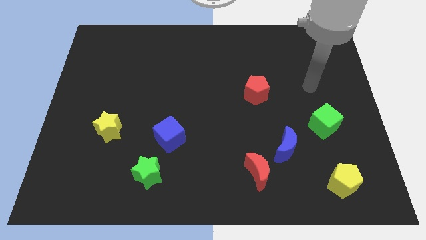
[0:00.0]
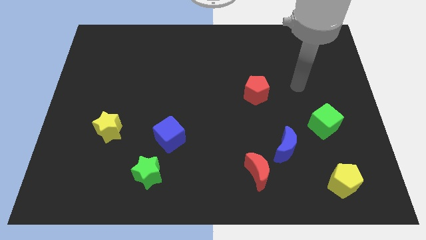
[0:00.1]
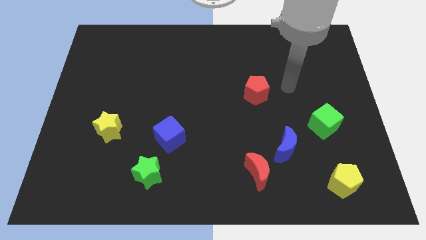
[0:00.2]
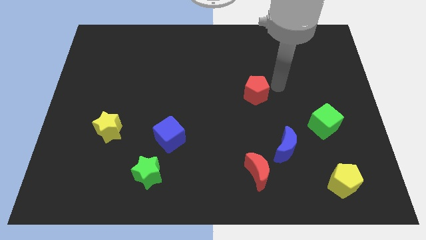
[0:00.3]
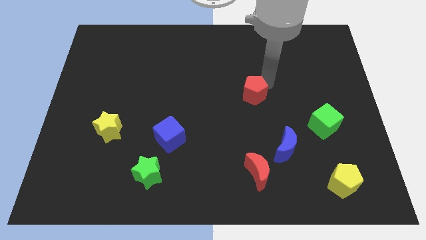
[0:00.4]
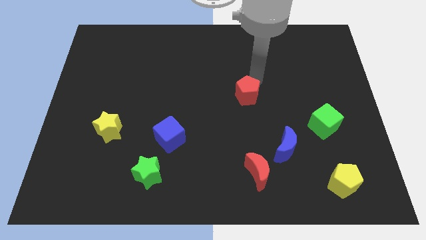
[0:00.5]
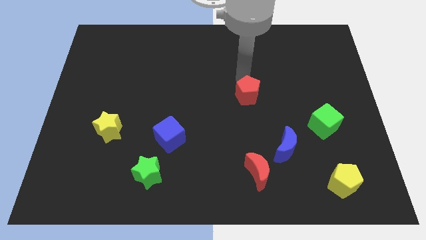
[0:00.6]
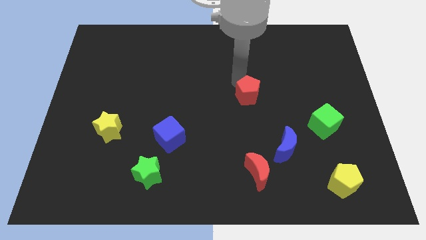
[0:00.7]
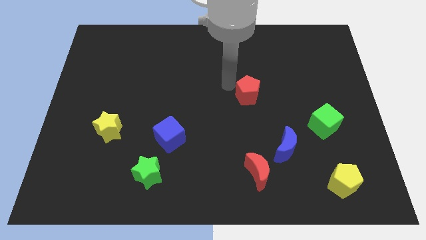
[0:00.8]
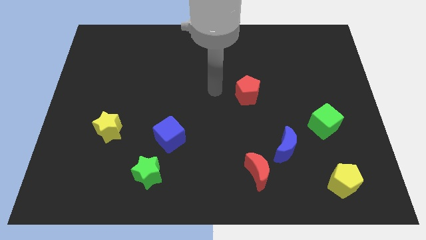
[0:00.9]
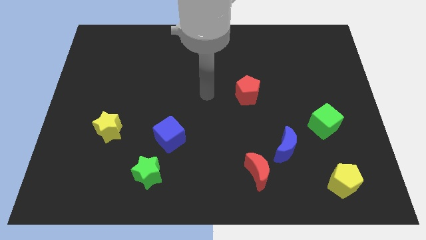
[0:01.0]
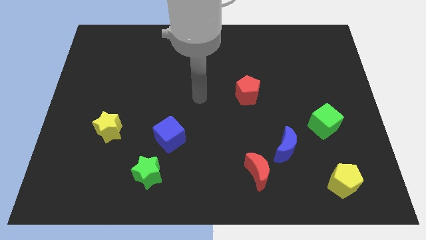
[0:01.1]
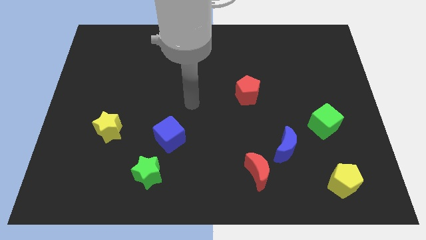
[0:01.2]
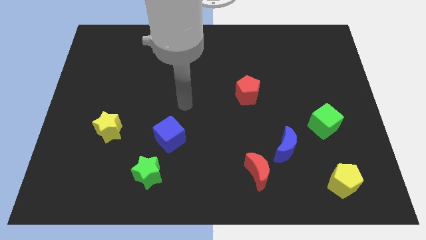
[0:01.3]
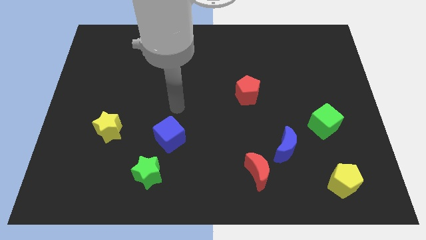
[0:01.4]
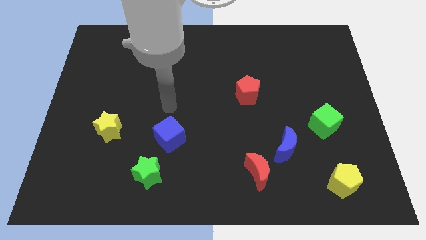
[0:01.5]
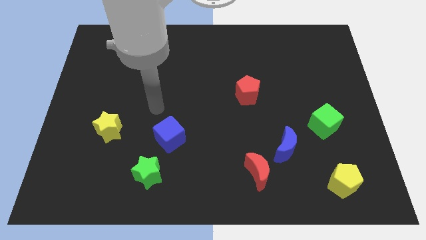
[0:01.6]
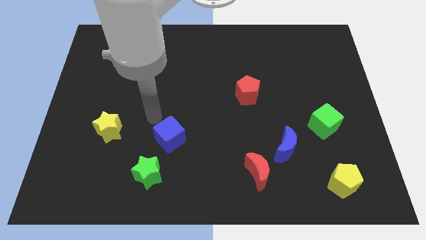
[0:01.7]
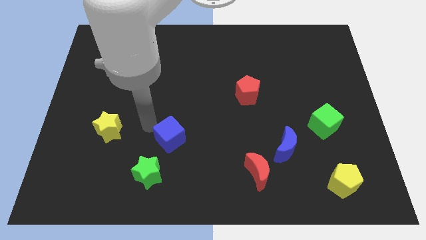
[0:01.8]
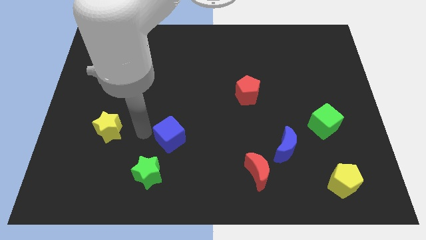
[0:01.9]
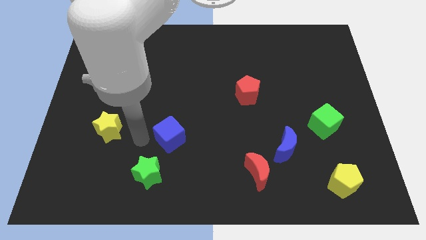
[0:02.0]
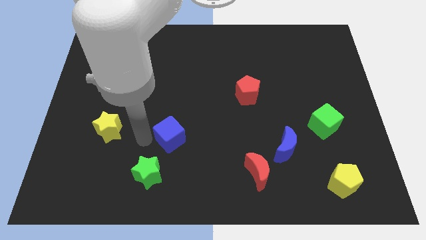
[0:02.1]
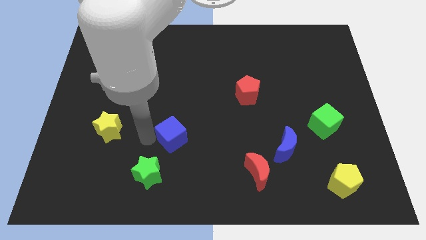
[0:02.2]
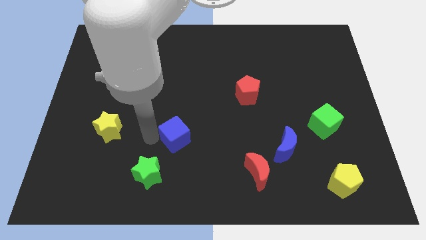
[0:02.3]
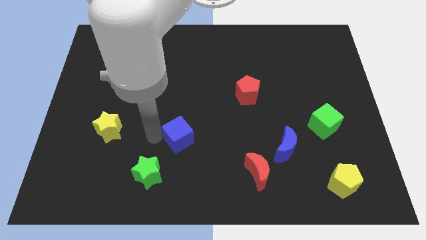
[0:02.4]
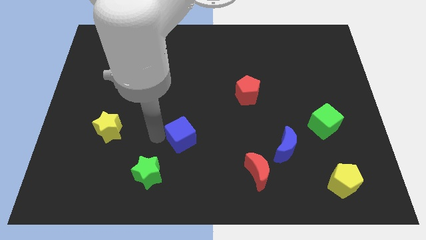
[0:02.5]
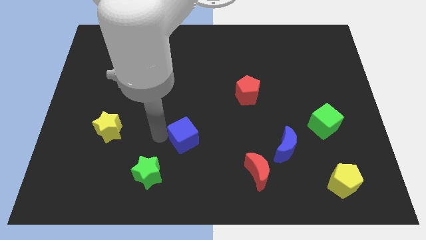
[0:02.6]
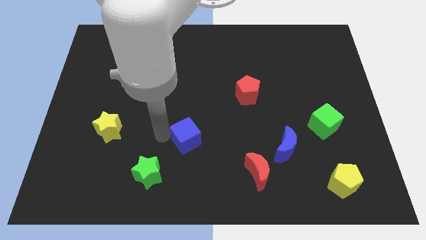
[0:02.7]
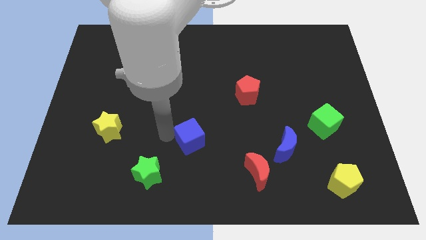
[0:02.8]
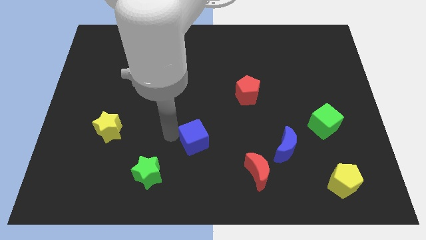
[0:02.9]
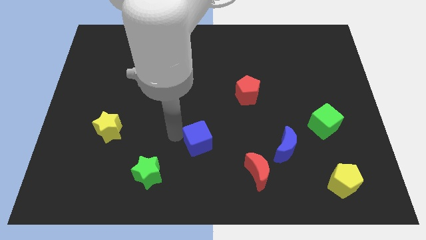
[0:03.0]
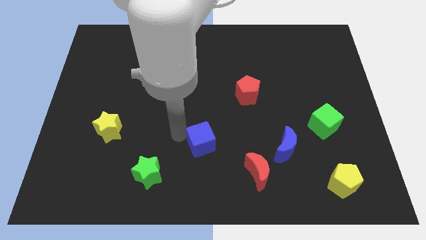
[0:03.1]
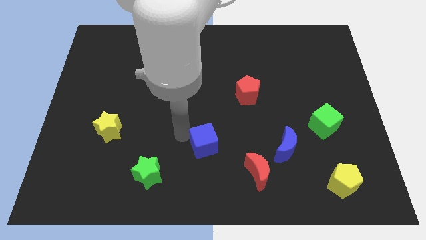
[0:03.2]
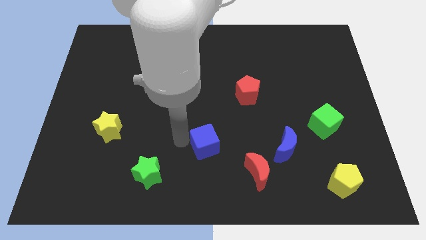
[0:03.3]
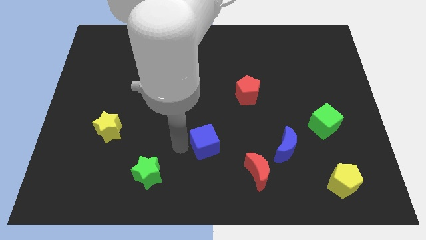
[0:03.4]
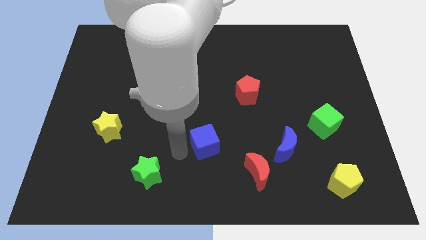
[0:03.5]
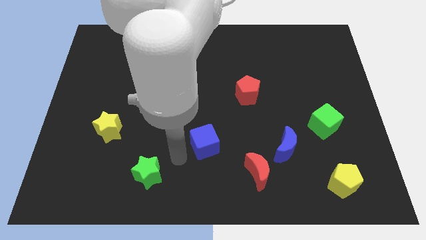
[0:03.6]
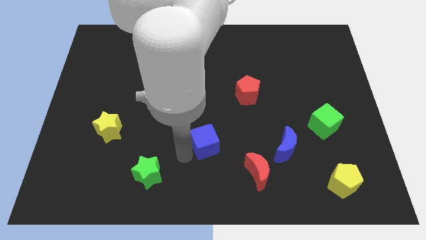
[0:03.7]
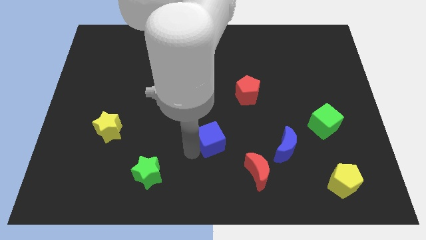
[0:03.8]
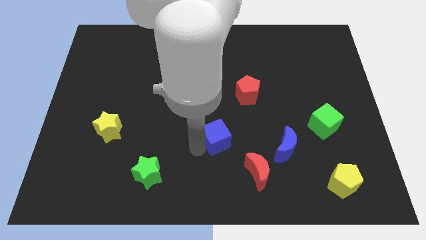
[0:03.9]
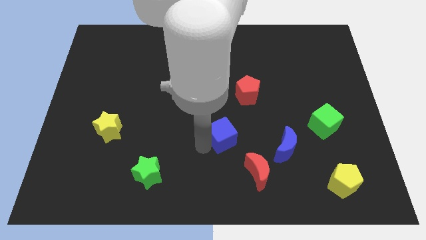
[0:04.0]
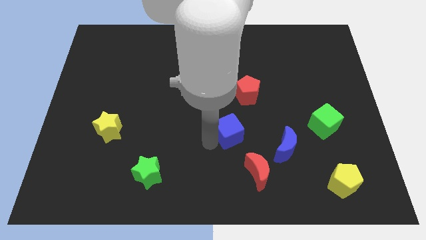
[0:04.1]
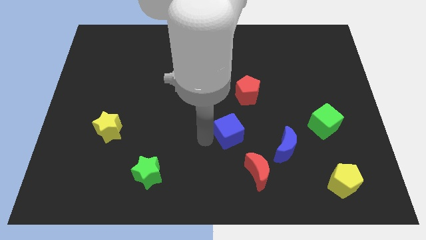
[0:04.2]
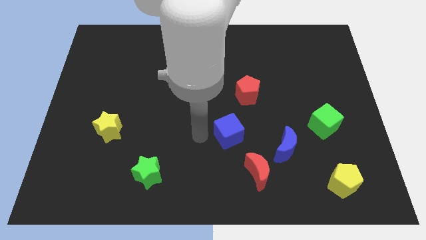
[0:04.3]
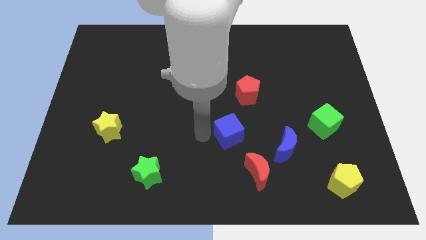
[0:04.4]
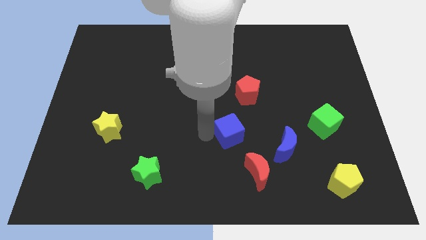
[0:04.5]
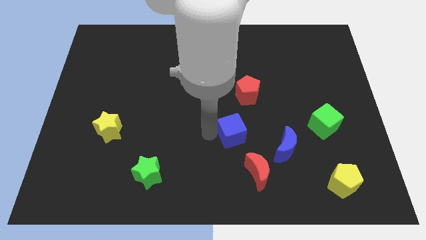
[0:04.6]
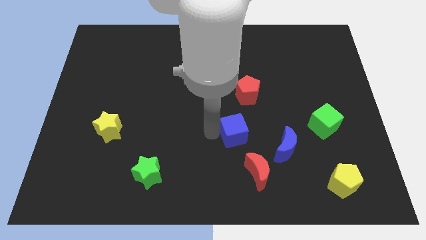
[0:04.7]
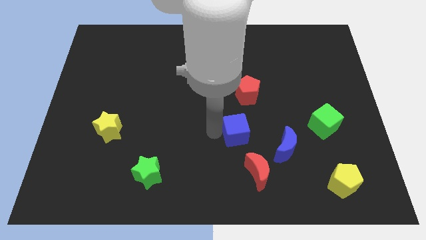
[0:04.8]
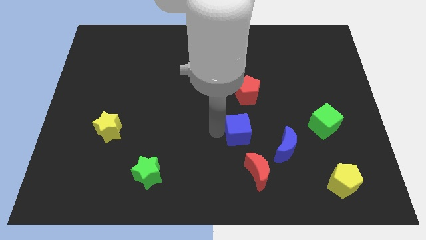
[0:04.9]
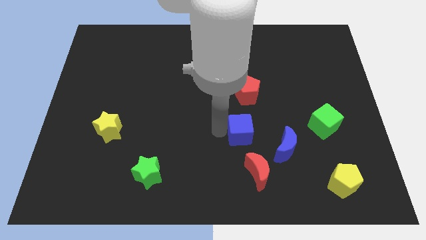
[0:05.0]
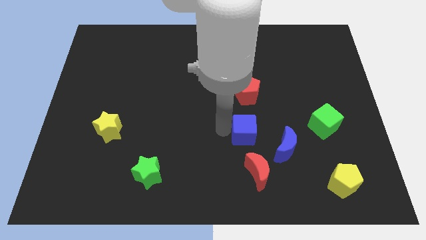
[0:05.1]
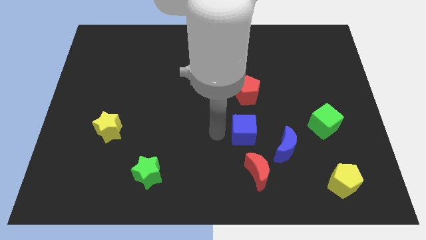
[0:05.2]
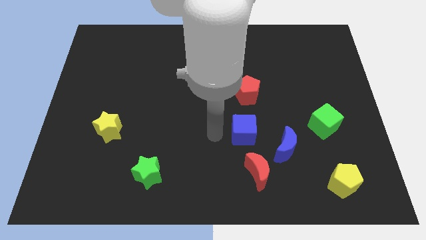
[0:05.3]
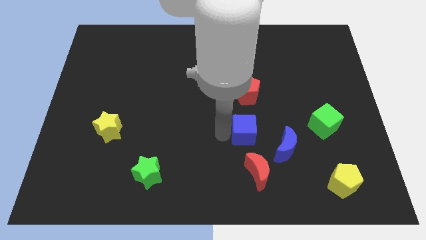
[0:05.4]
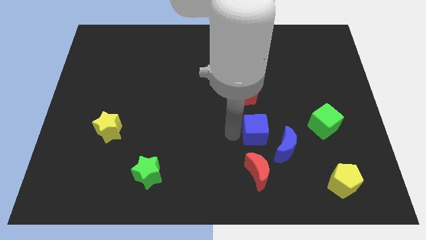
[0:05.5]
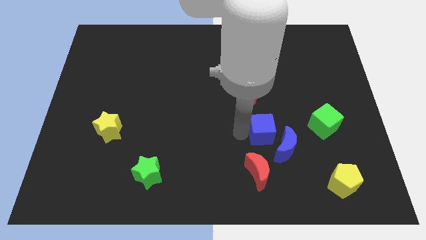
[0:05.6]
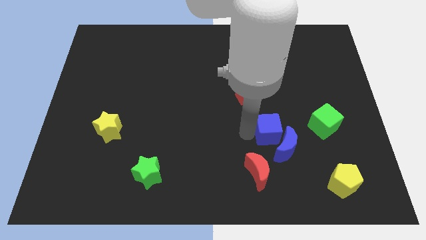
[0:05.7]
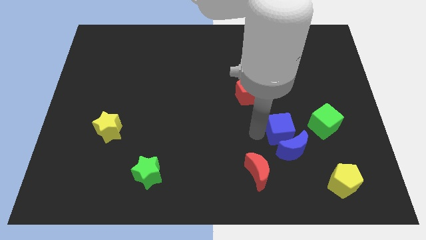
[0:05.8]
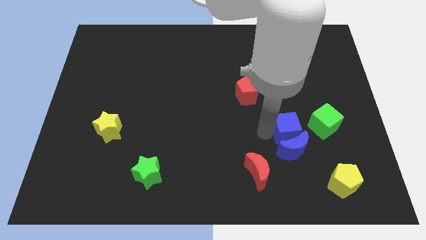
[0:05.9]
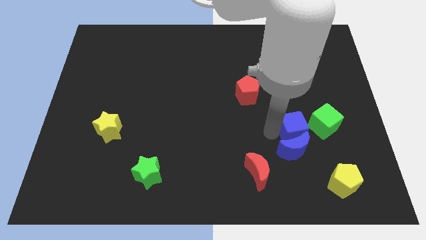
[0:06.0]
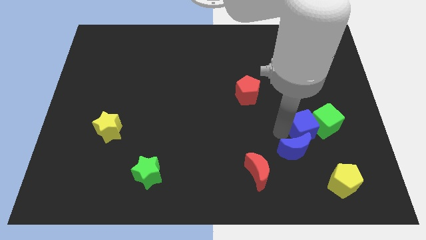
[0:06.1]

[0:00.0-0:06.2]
put the blue cube close to the green cube
